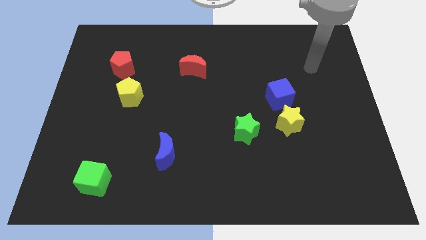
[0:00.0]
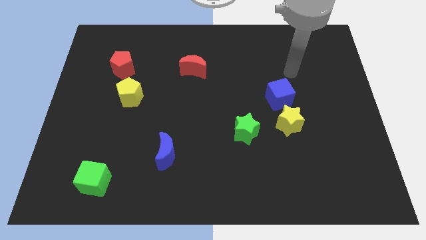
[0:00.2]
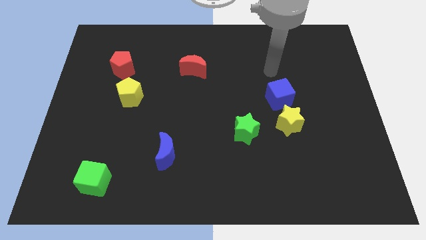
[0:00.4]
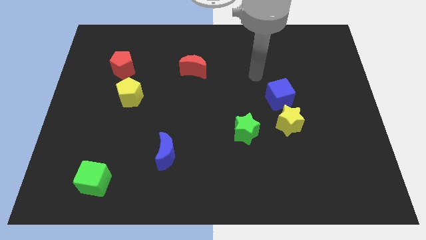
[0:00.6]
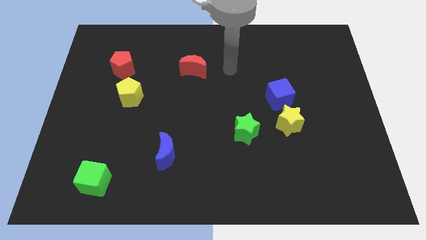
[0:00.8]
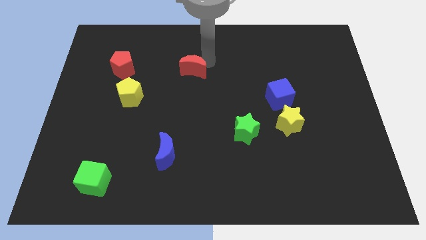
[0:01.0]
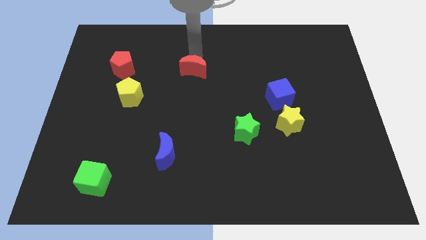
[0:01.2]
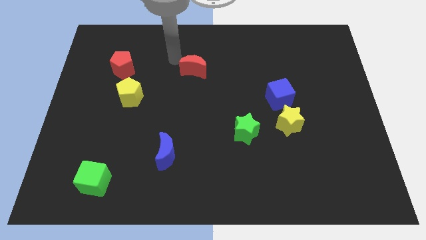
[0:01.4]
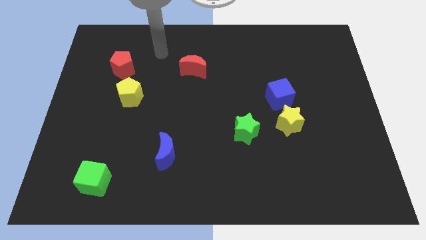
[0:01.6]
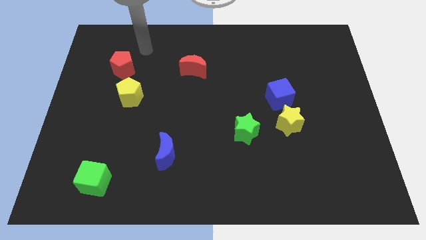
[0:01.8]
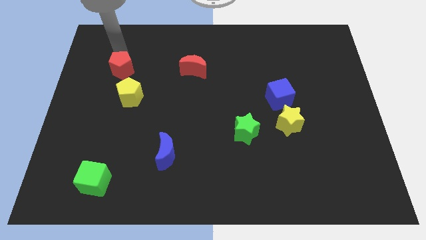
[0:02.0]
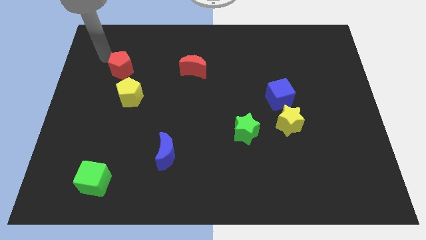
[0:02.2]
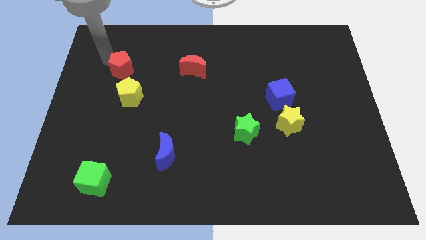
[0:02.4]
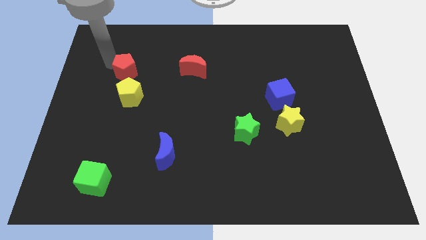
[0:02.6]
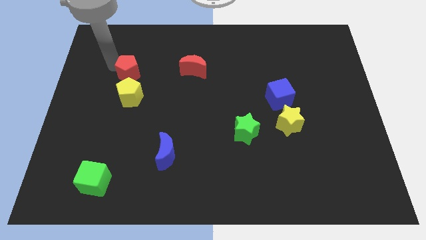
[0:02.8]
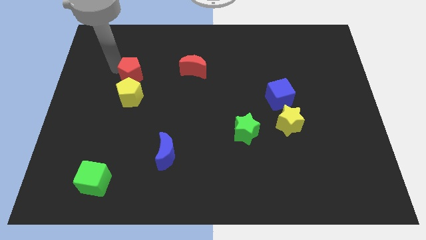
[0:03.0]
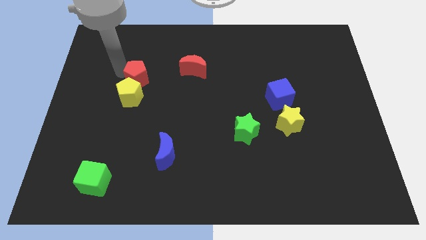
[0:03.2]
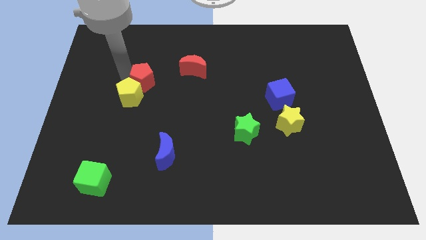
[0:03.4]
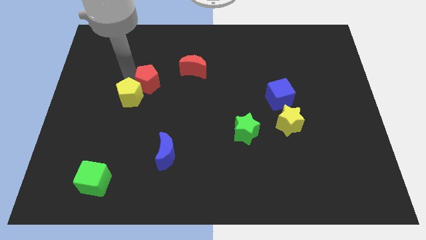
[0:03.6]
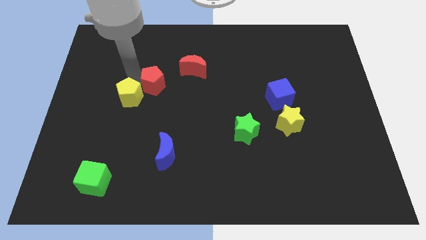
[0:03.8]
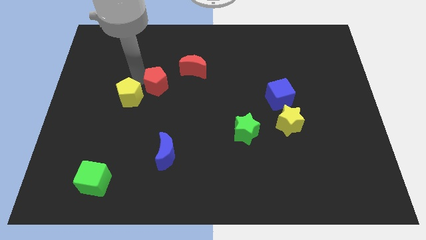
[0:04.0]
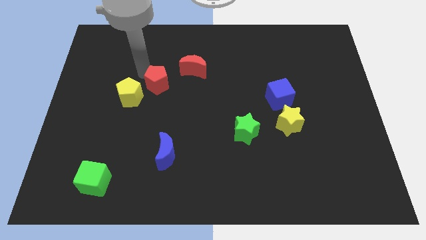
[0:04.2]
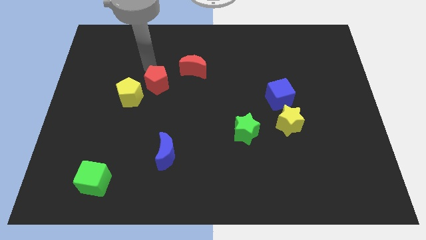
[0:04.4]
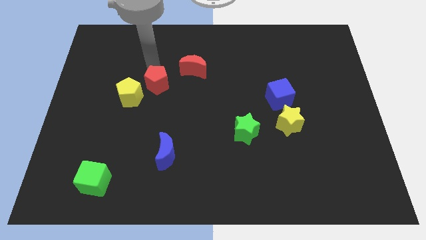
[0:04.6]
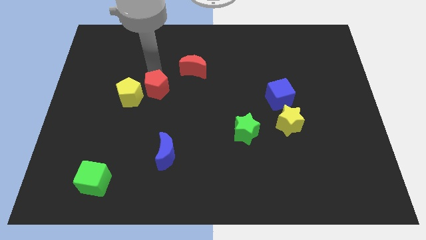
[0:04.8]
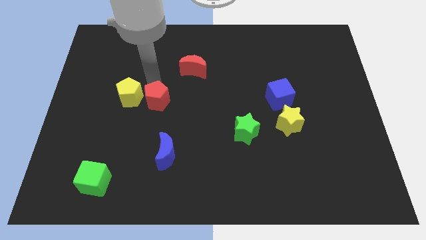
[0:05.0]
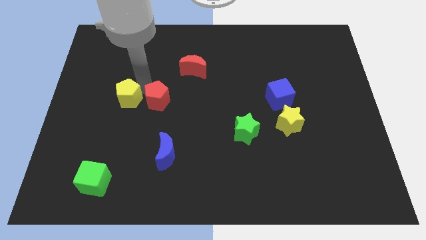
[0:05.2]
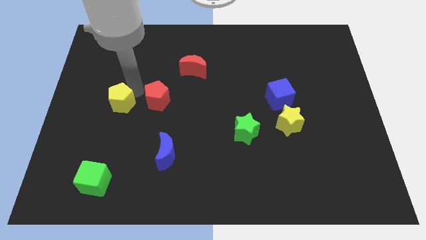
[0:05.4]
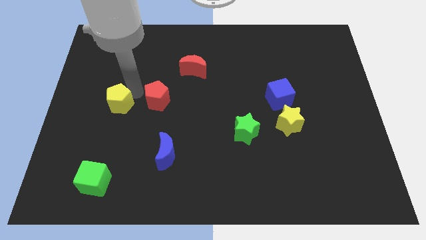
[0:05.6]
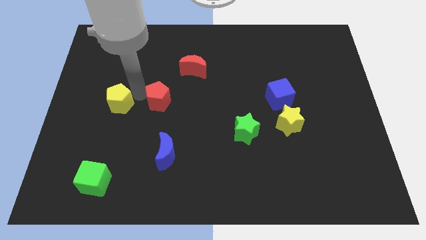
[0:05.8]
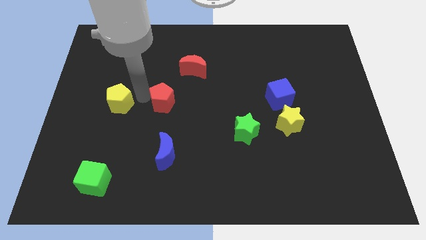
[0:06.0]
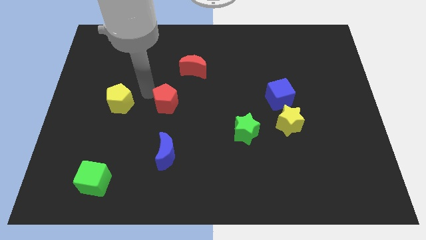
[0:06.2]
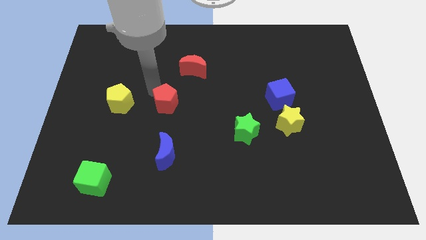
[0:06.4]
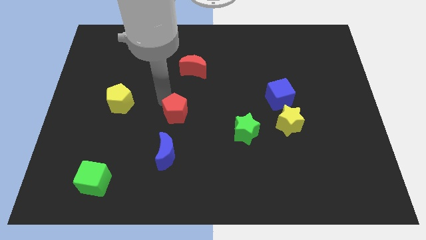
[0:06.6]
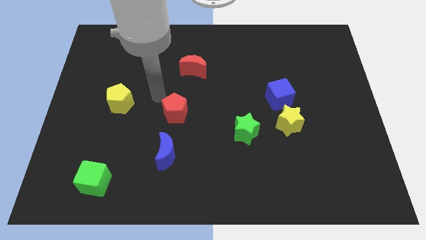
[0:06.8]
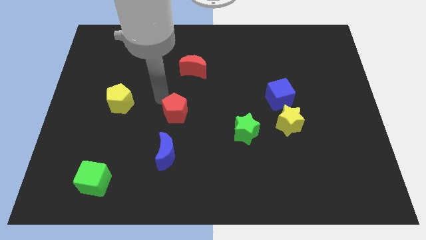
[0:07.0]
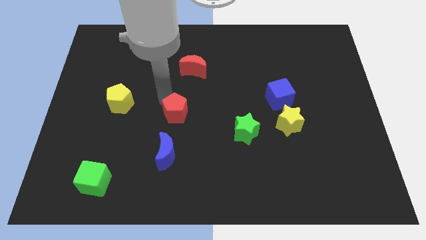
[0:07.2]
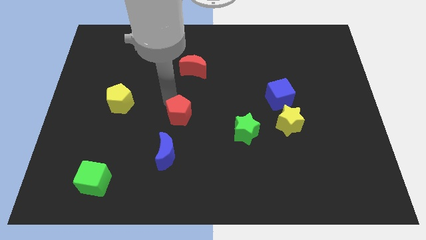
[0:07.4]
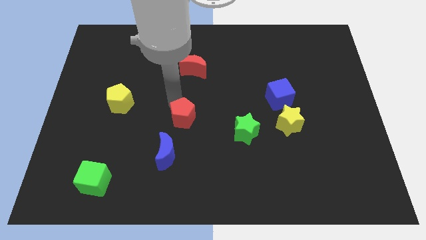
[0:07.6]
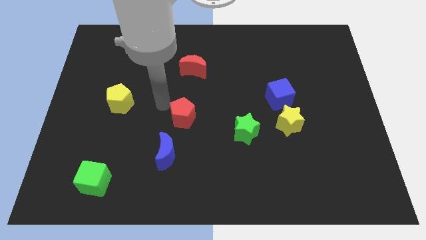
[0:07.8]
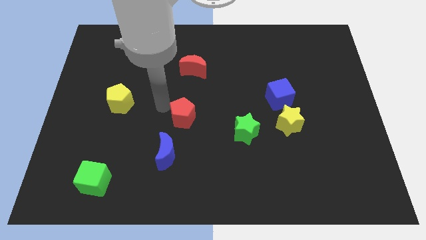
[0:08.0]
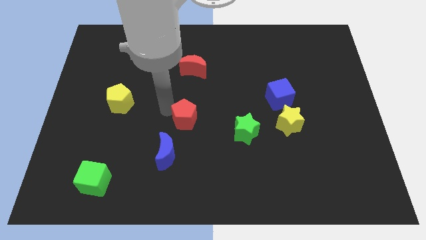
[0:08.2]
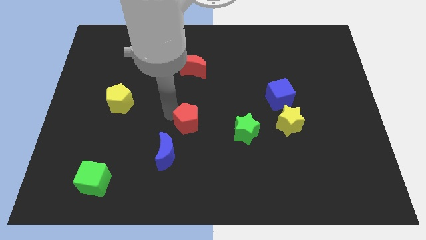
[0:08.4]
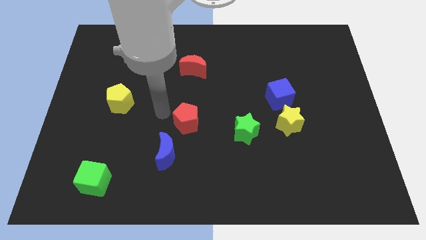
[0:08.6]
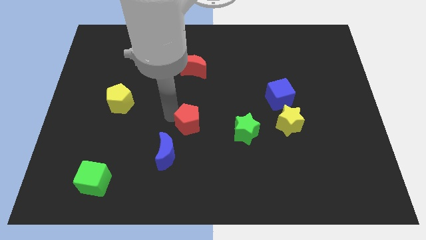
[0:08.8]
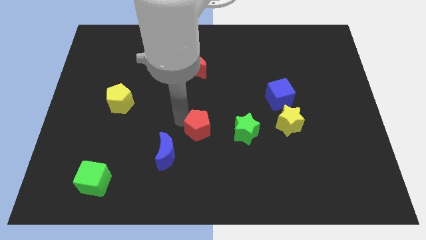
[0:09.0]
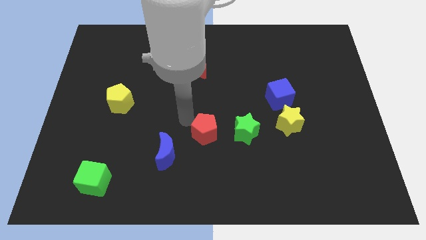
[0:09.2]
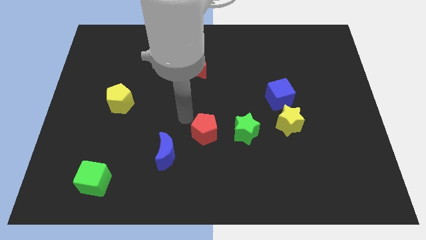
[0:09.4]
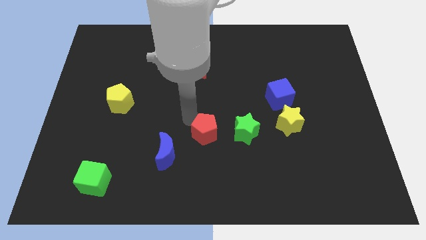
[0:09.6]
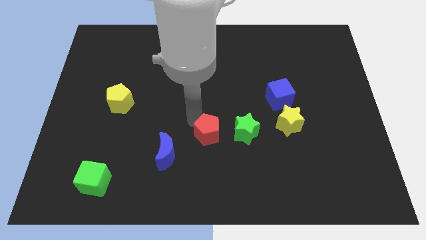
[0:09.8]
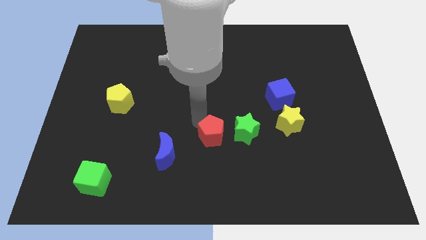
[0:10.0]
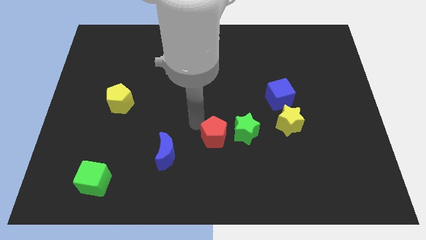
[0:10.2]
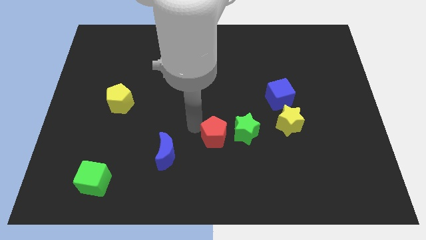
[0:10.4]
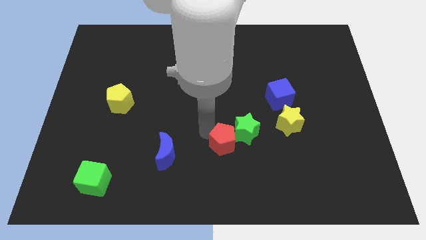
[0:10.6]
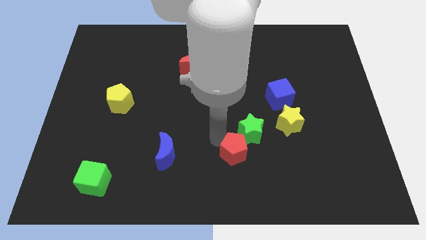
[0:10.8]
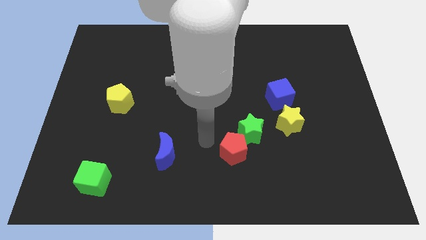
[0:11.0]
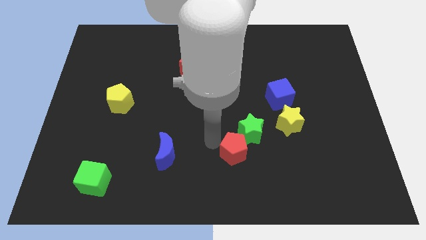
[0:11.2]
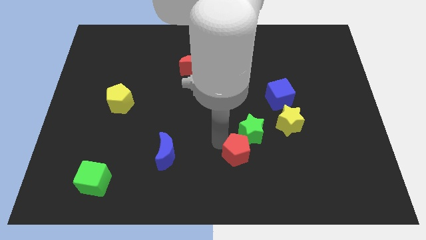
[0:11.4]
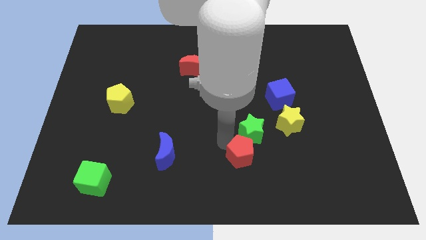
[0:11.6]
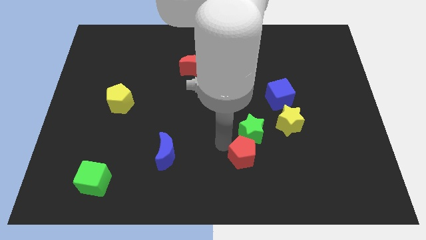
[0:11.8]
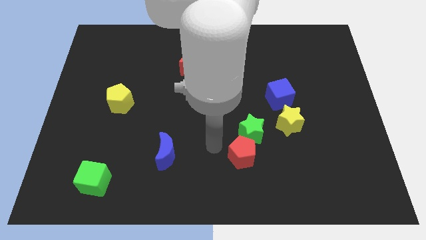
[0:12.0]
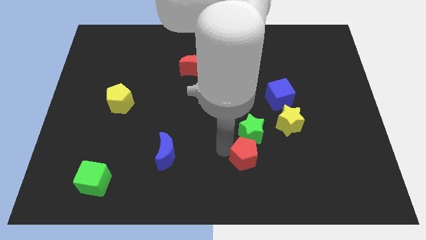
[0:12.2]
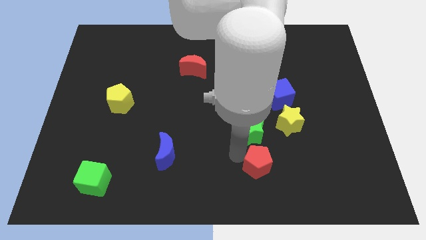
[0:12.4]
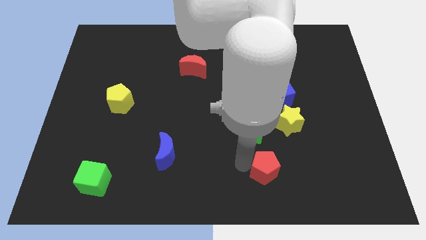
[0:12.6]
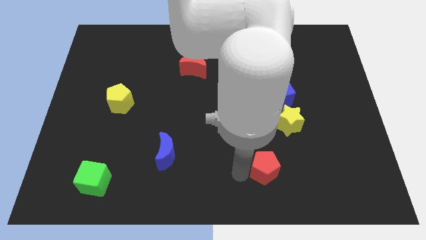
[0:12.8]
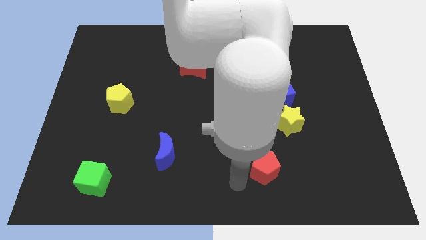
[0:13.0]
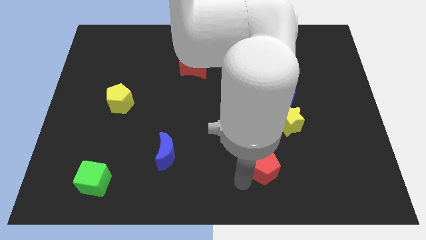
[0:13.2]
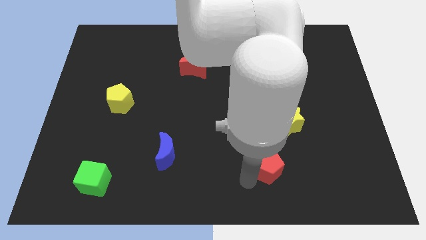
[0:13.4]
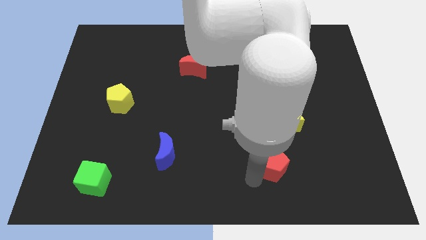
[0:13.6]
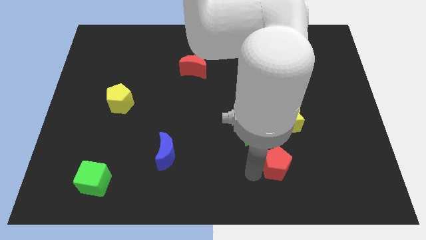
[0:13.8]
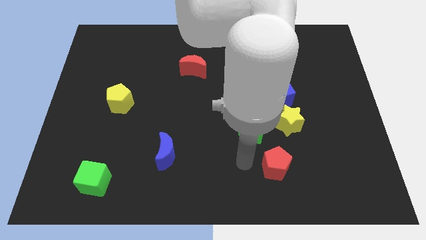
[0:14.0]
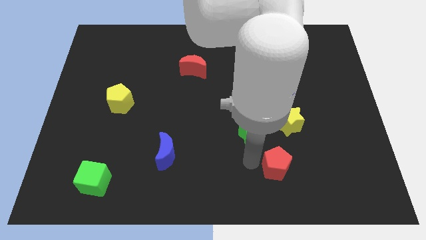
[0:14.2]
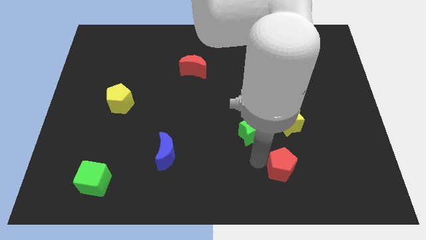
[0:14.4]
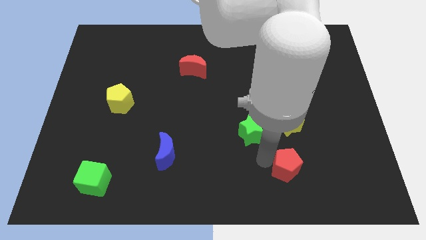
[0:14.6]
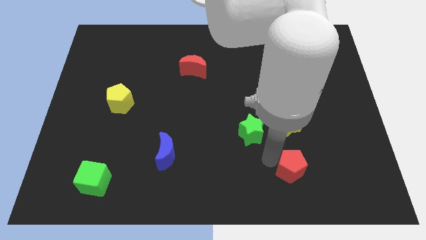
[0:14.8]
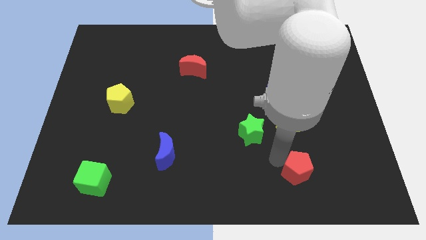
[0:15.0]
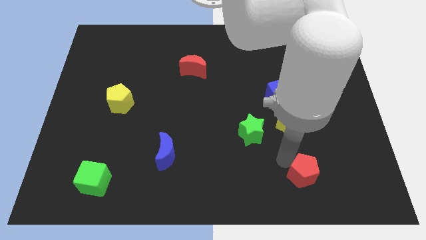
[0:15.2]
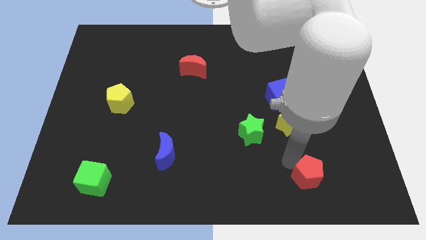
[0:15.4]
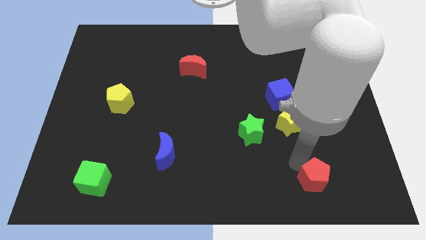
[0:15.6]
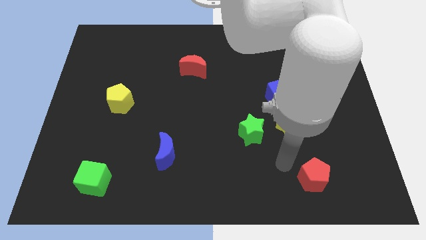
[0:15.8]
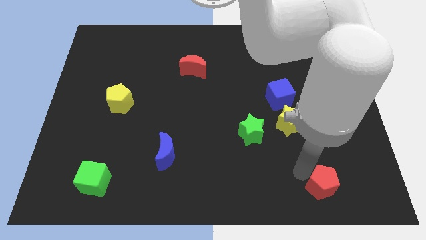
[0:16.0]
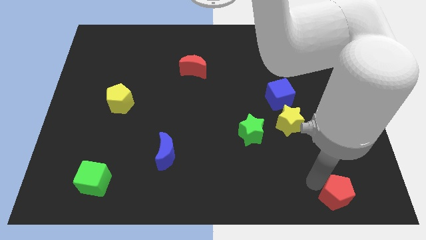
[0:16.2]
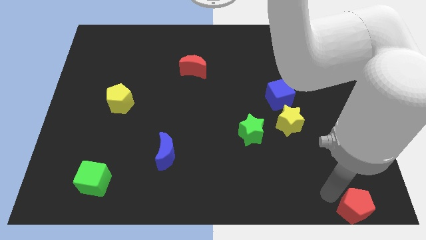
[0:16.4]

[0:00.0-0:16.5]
move the red pentagon to the lower right corner
